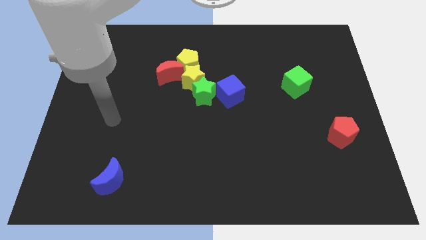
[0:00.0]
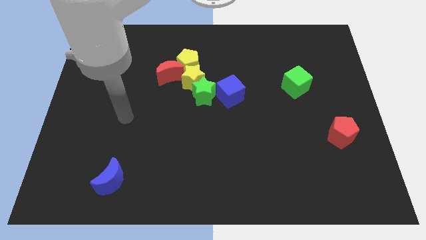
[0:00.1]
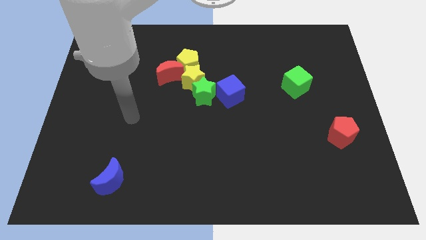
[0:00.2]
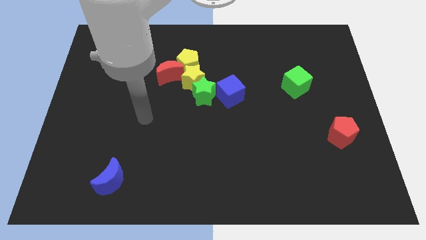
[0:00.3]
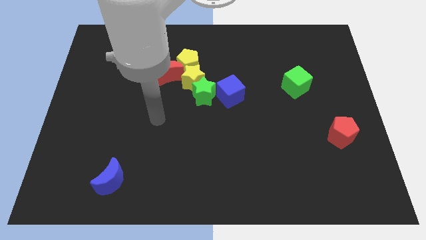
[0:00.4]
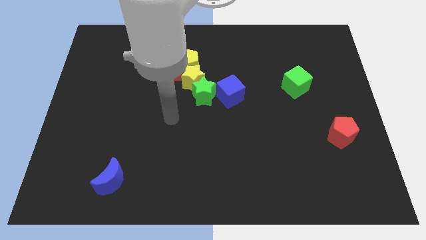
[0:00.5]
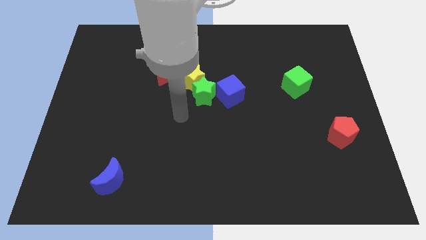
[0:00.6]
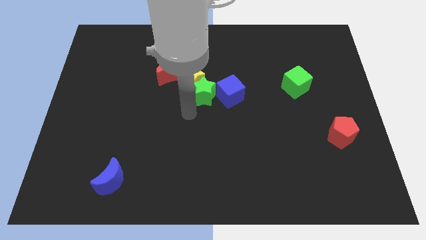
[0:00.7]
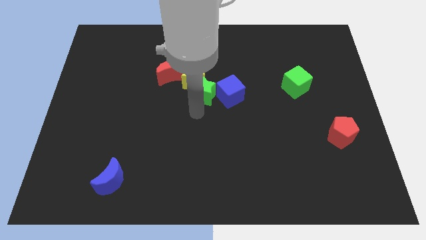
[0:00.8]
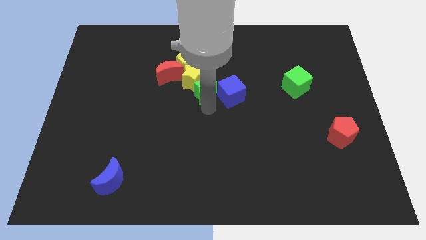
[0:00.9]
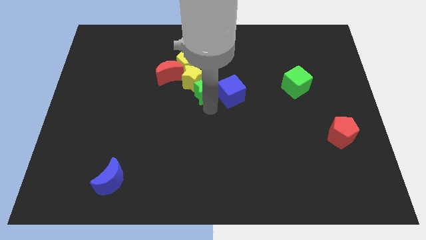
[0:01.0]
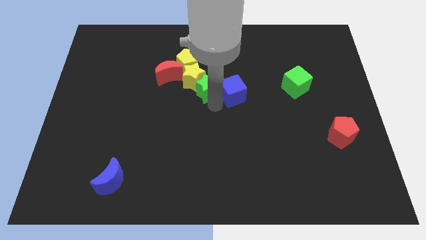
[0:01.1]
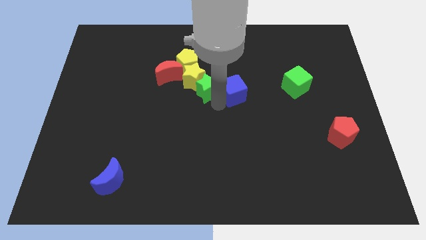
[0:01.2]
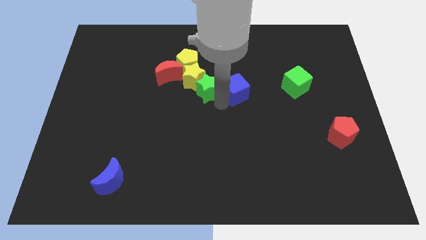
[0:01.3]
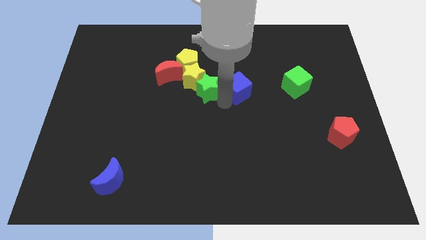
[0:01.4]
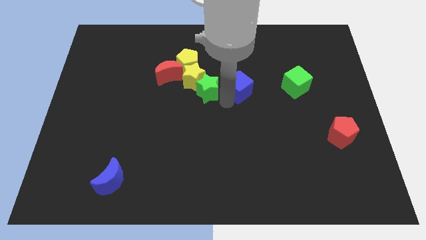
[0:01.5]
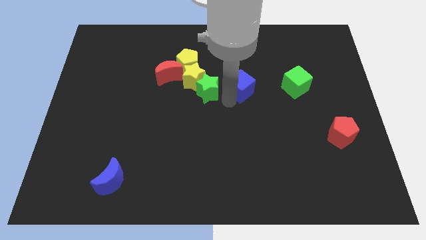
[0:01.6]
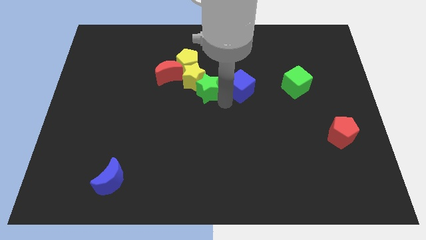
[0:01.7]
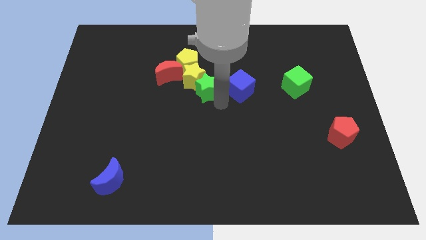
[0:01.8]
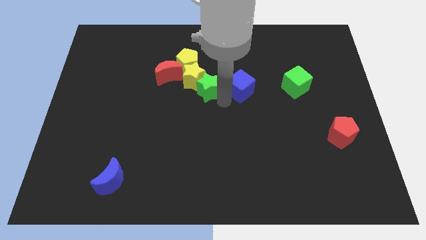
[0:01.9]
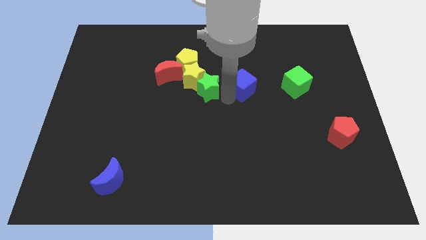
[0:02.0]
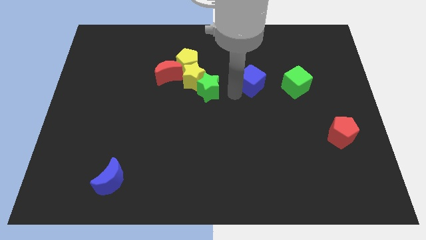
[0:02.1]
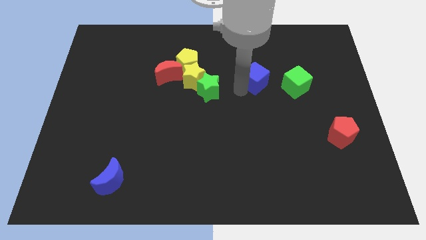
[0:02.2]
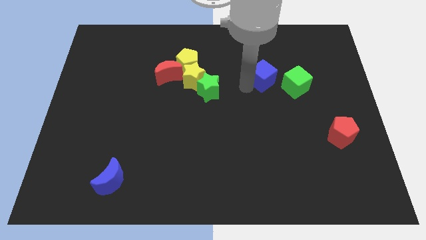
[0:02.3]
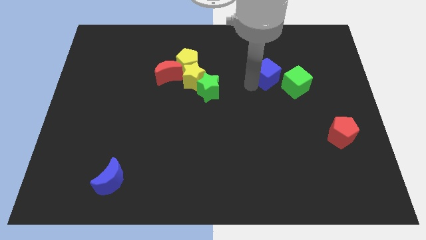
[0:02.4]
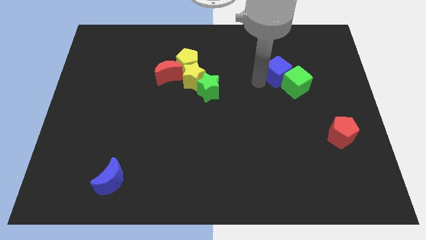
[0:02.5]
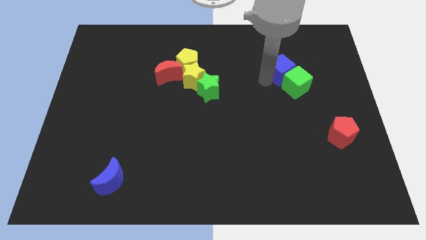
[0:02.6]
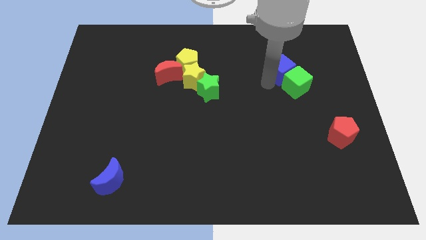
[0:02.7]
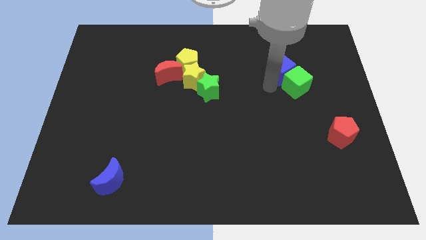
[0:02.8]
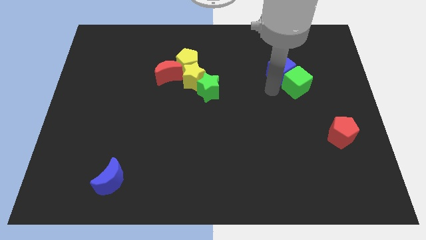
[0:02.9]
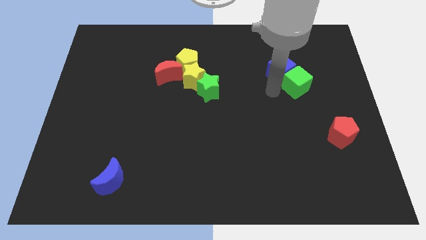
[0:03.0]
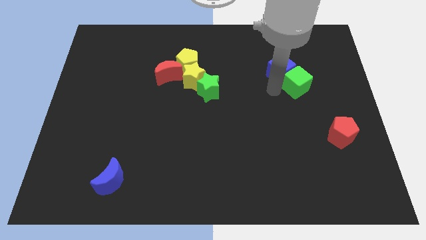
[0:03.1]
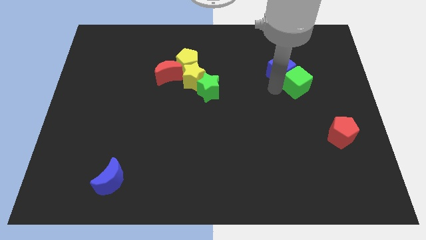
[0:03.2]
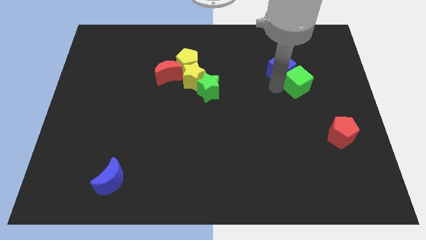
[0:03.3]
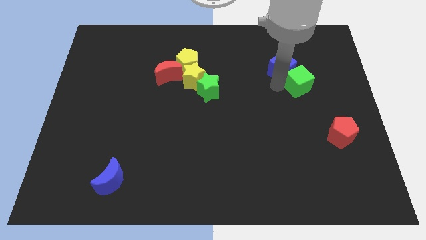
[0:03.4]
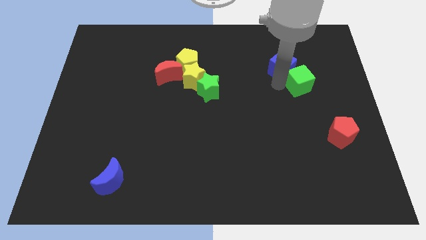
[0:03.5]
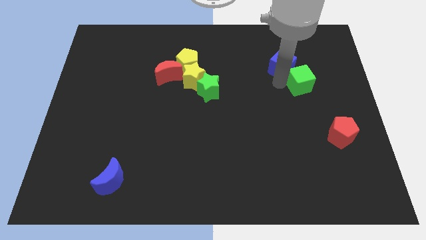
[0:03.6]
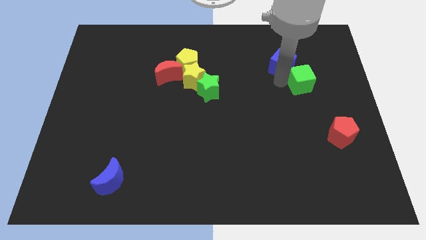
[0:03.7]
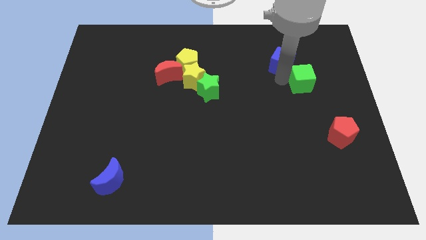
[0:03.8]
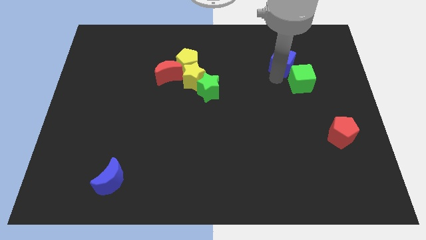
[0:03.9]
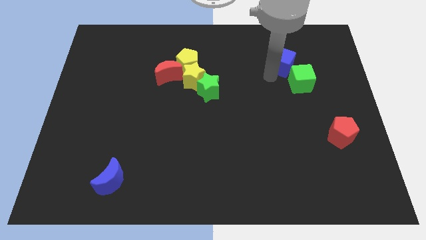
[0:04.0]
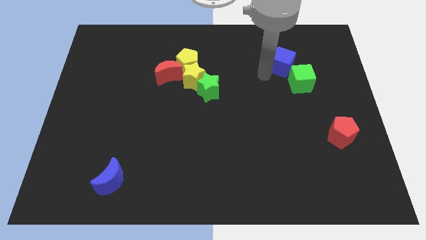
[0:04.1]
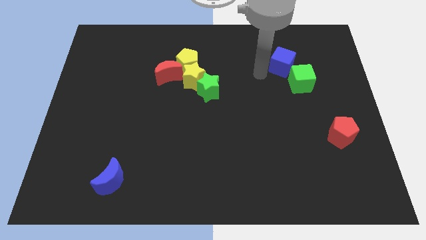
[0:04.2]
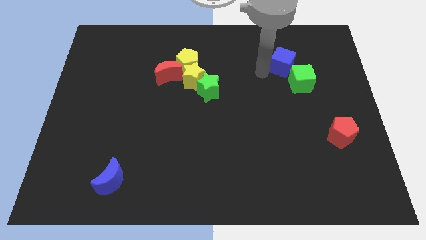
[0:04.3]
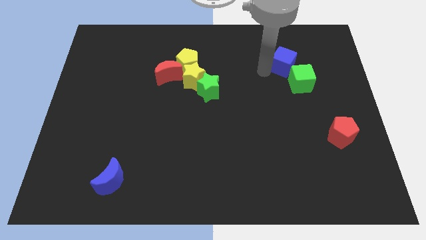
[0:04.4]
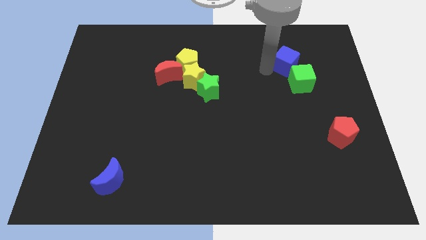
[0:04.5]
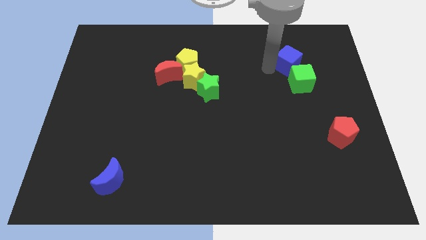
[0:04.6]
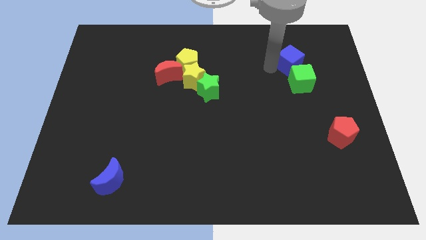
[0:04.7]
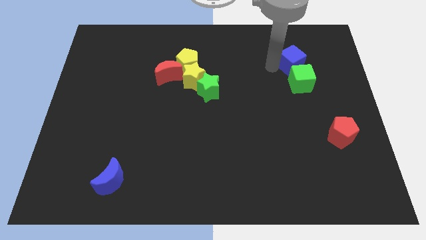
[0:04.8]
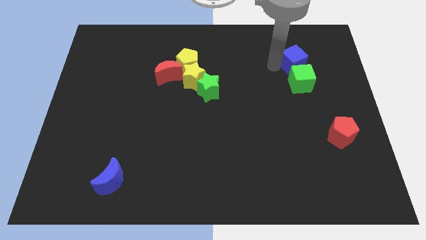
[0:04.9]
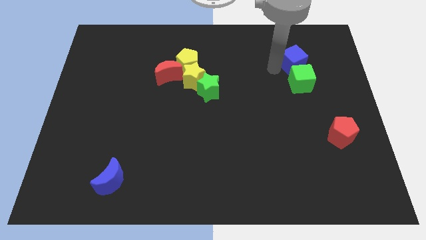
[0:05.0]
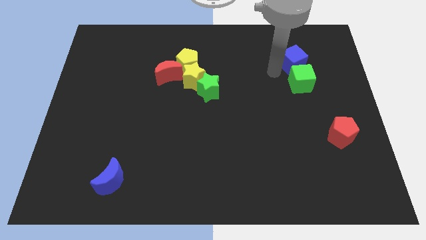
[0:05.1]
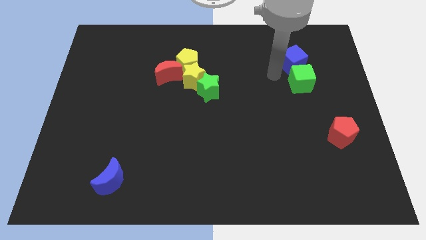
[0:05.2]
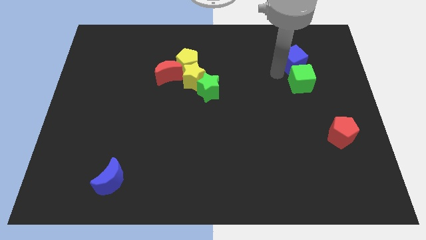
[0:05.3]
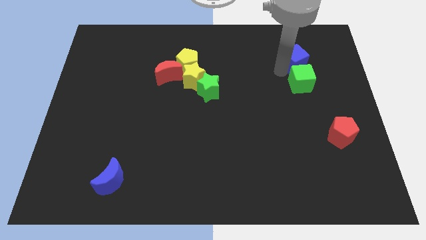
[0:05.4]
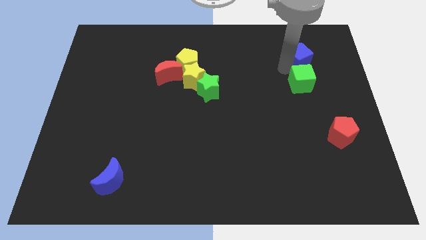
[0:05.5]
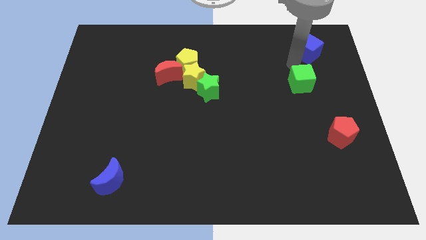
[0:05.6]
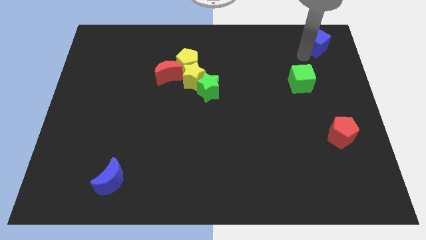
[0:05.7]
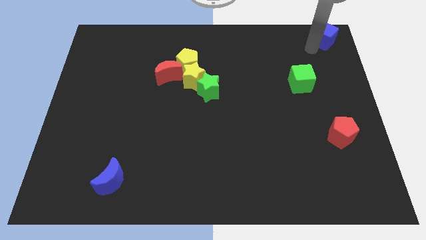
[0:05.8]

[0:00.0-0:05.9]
move the blue cube to the upper right corner
